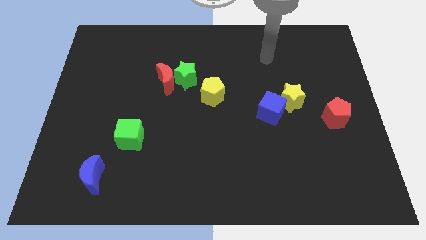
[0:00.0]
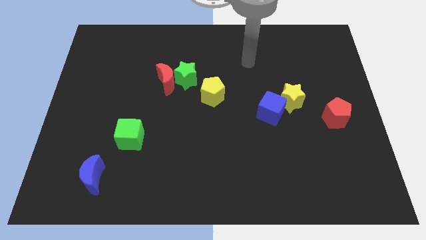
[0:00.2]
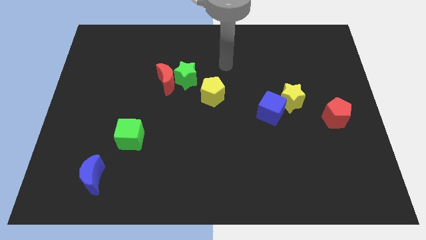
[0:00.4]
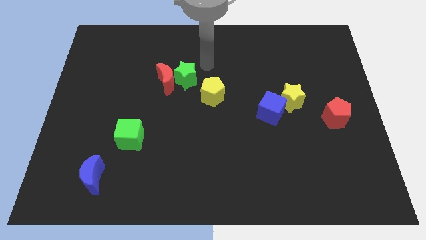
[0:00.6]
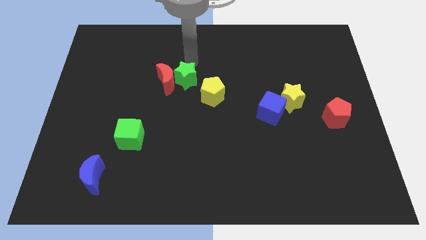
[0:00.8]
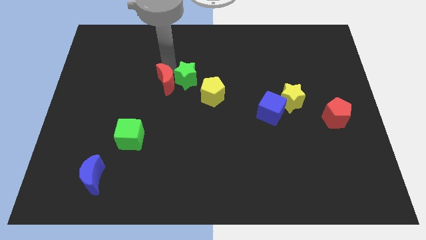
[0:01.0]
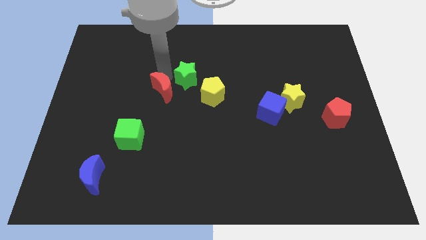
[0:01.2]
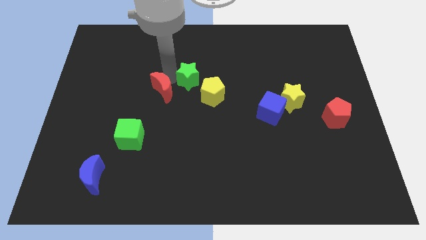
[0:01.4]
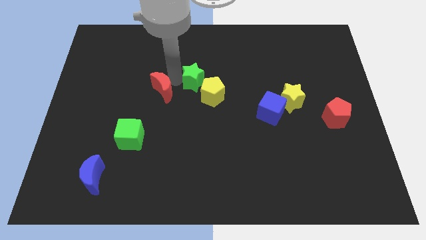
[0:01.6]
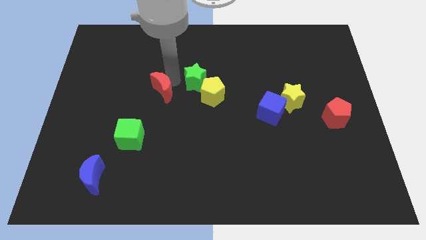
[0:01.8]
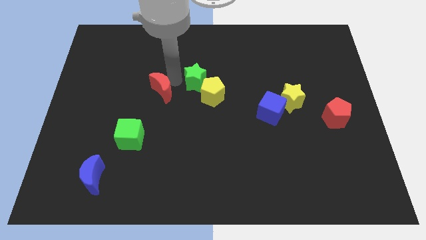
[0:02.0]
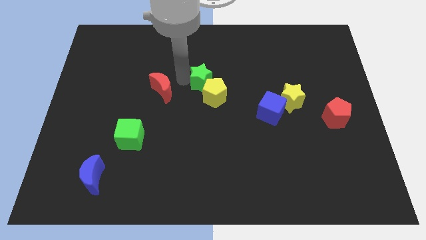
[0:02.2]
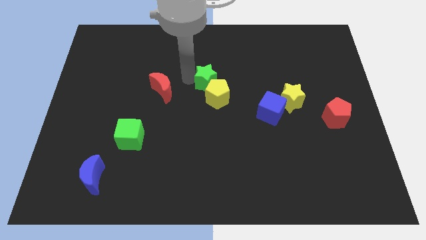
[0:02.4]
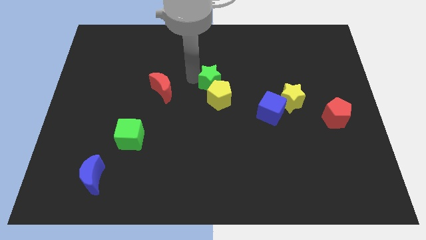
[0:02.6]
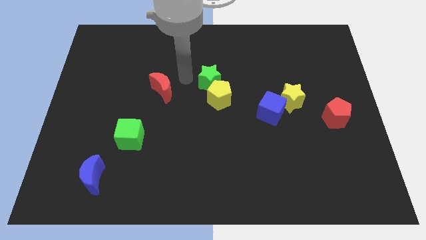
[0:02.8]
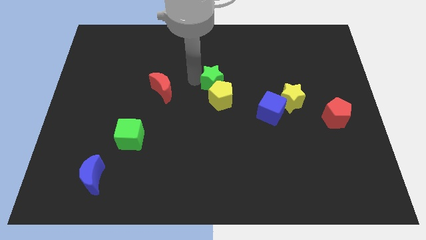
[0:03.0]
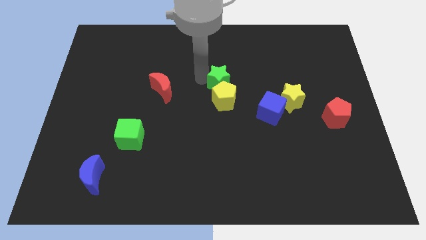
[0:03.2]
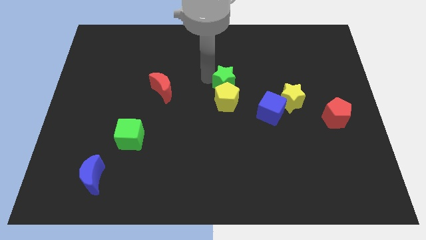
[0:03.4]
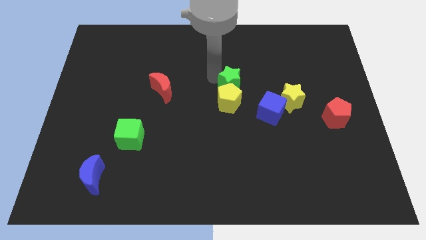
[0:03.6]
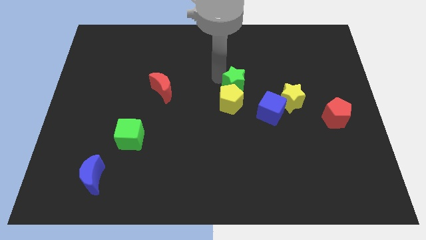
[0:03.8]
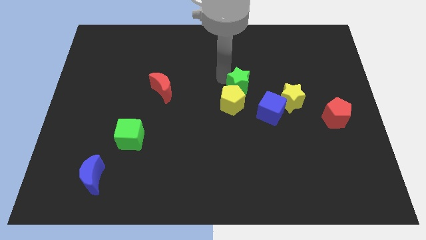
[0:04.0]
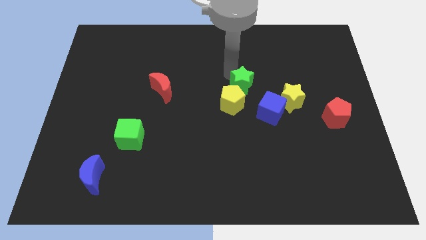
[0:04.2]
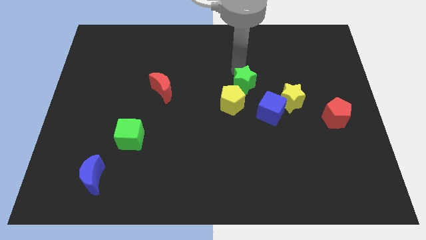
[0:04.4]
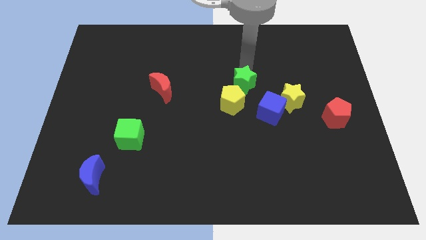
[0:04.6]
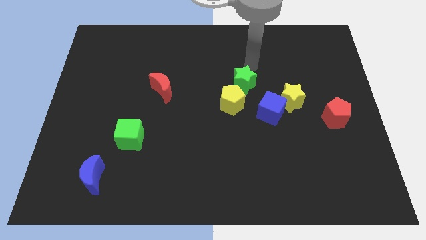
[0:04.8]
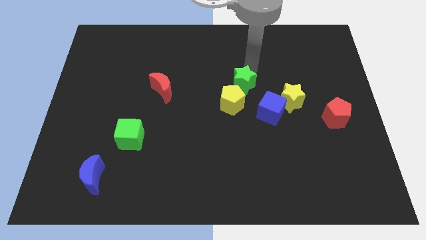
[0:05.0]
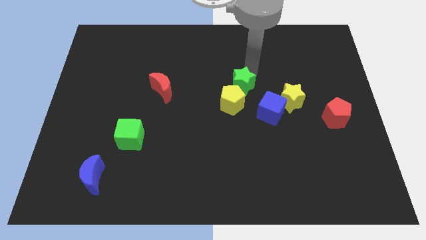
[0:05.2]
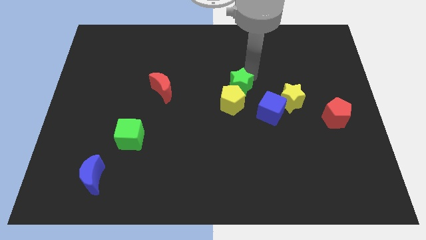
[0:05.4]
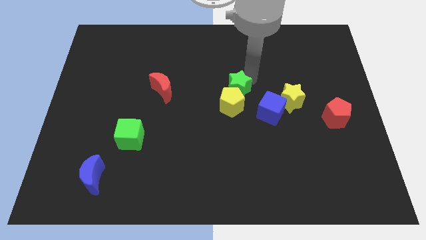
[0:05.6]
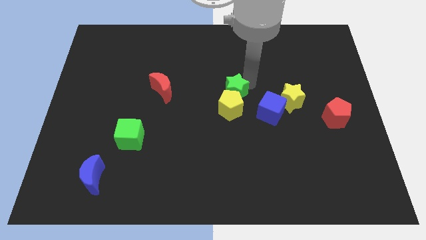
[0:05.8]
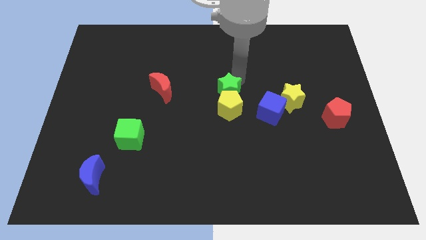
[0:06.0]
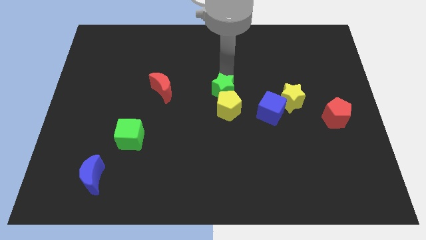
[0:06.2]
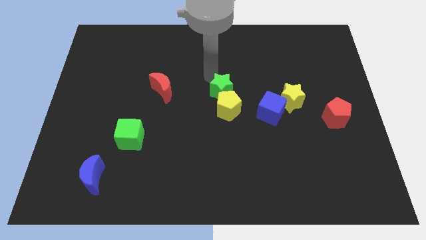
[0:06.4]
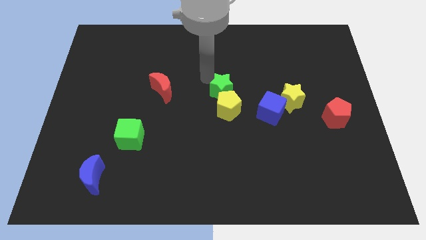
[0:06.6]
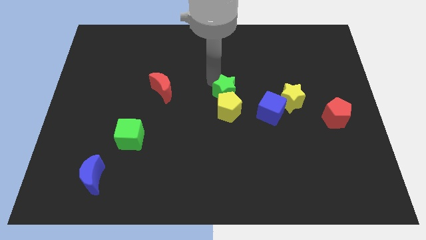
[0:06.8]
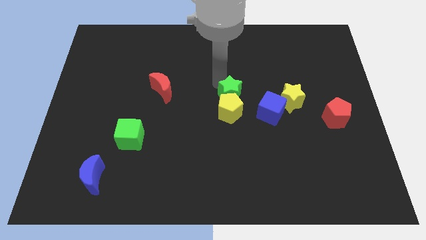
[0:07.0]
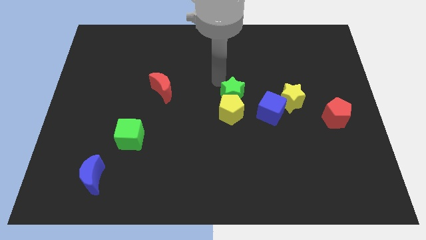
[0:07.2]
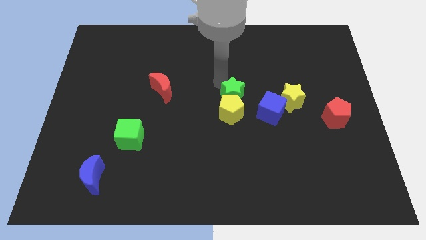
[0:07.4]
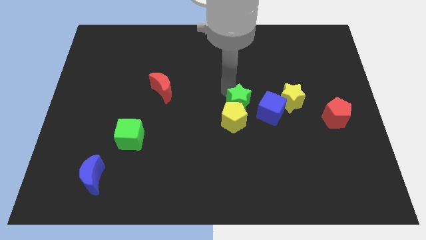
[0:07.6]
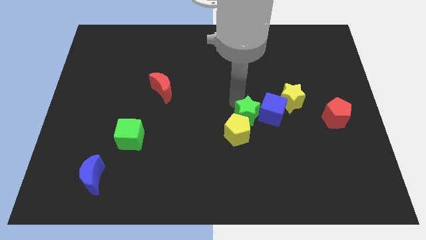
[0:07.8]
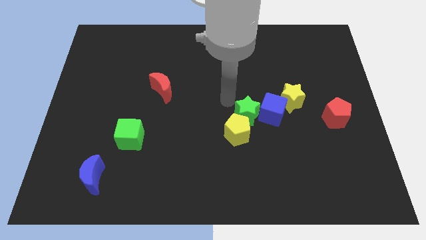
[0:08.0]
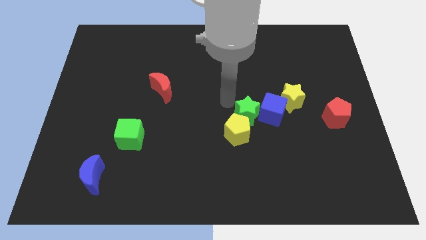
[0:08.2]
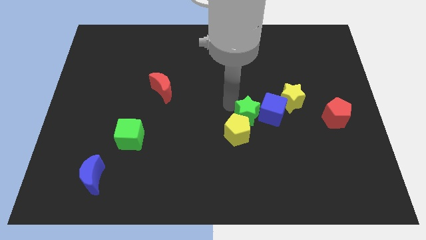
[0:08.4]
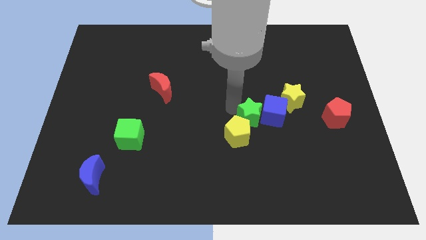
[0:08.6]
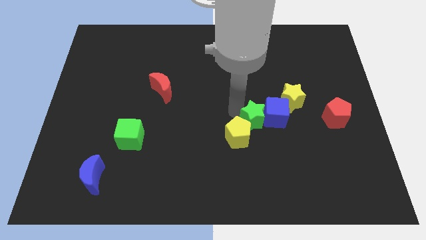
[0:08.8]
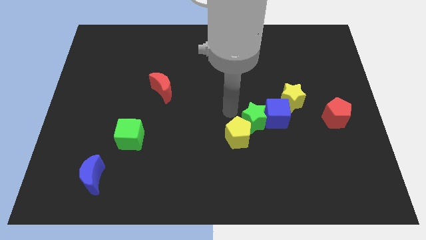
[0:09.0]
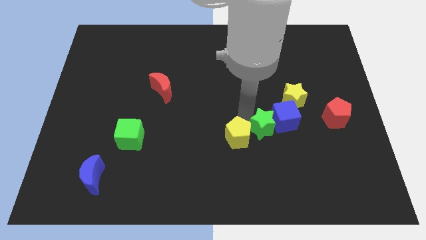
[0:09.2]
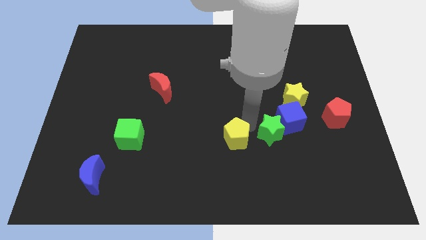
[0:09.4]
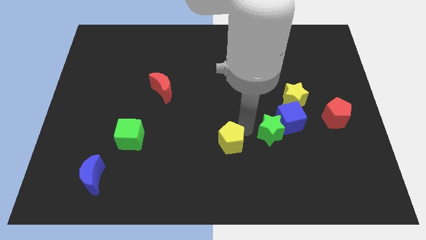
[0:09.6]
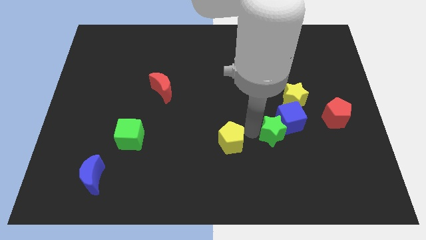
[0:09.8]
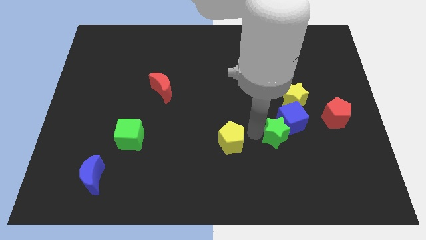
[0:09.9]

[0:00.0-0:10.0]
put the green star below the yellow star

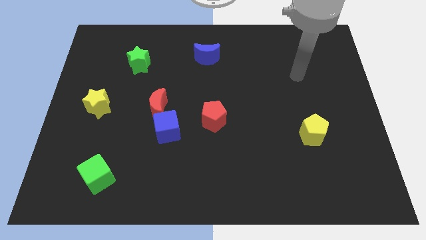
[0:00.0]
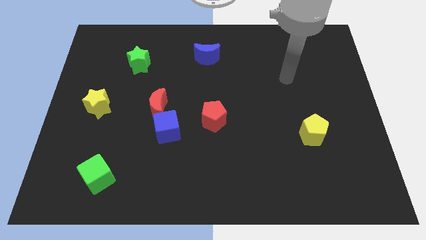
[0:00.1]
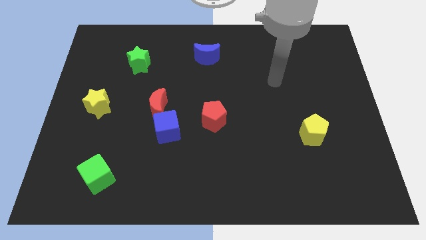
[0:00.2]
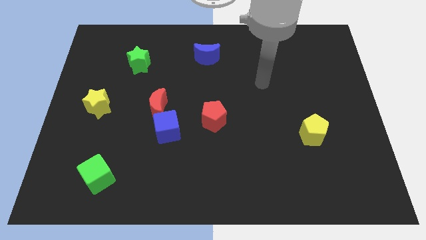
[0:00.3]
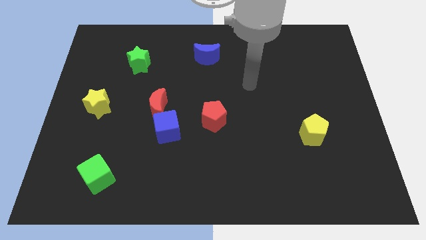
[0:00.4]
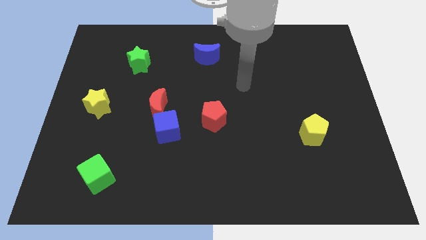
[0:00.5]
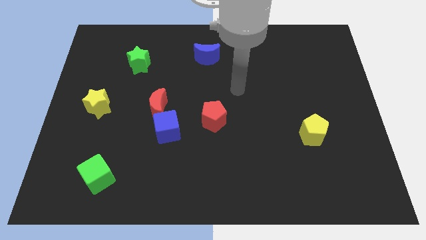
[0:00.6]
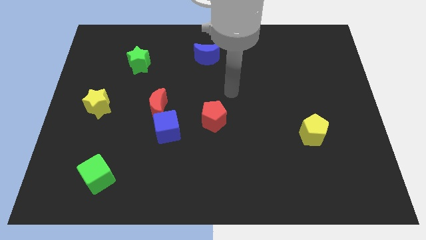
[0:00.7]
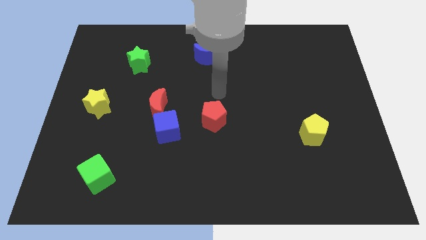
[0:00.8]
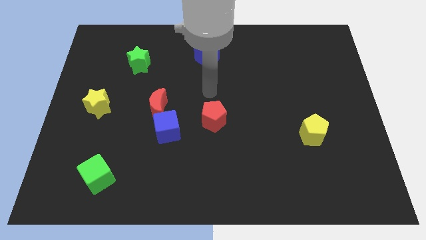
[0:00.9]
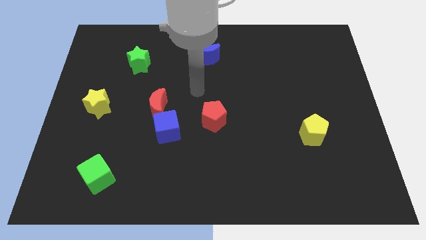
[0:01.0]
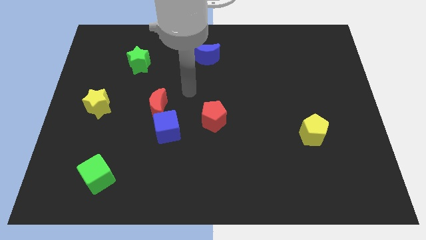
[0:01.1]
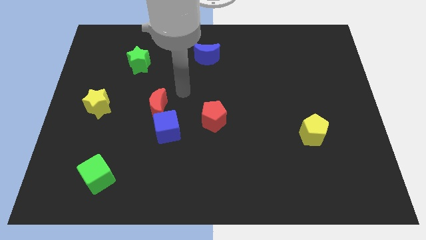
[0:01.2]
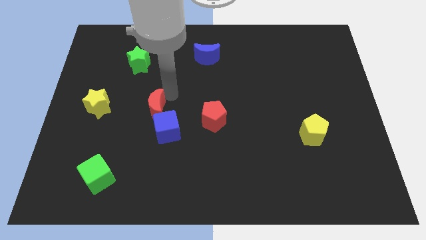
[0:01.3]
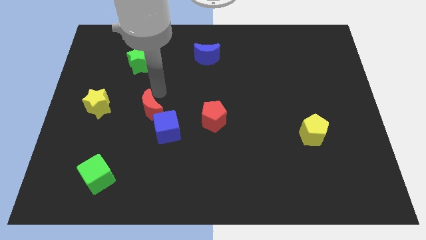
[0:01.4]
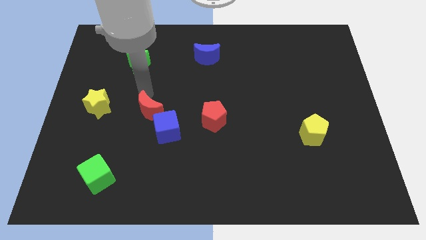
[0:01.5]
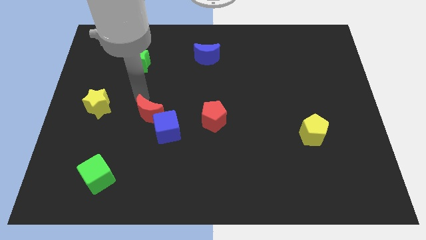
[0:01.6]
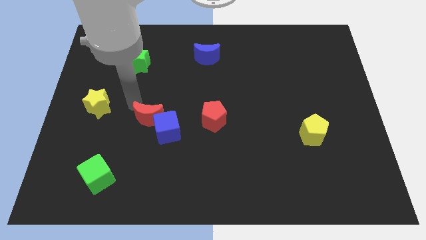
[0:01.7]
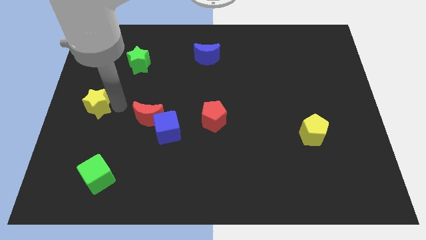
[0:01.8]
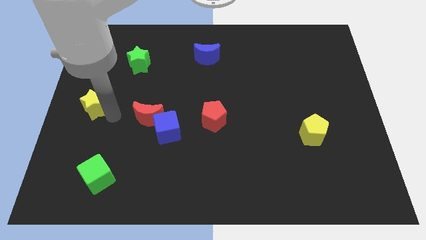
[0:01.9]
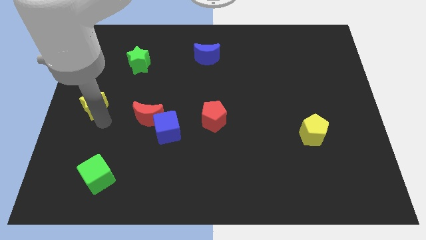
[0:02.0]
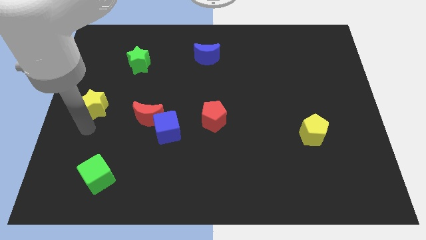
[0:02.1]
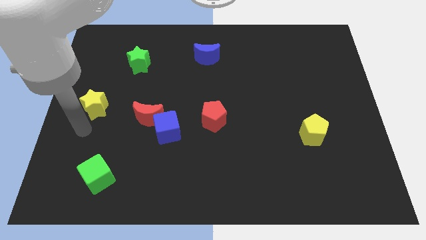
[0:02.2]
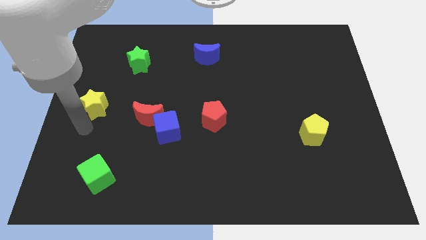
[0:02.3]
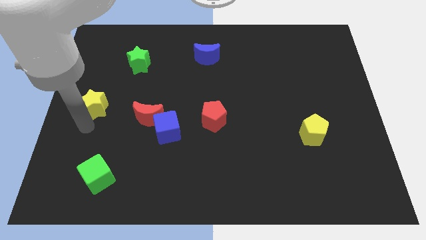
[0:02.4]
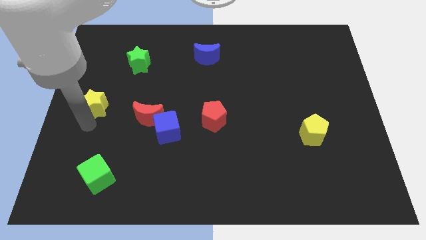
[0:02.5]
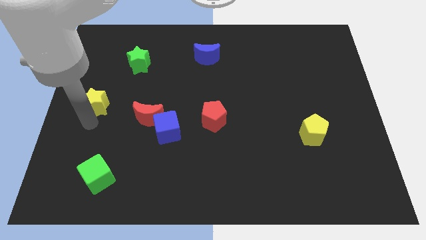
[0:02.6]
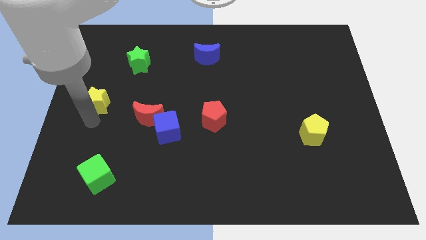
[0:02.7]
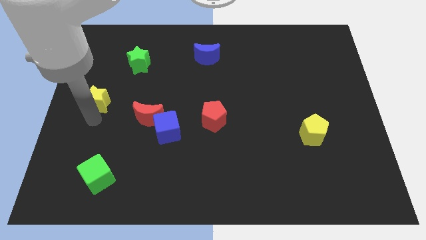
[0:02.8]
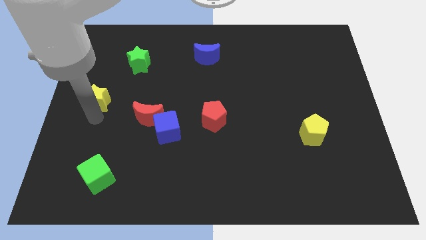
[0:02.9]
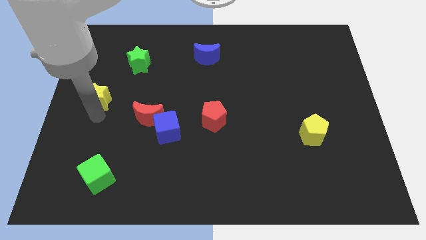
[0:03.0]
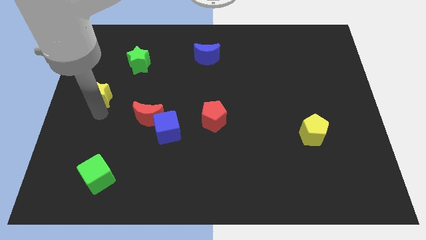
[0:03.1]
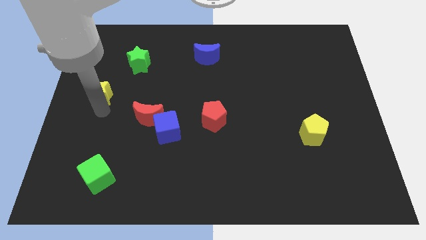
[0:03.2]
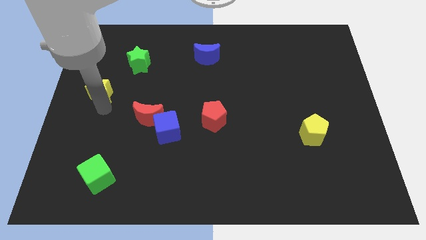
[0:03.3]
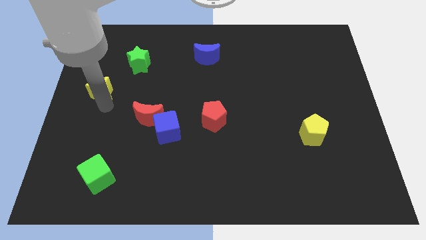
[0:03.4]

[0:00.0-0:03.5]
slide the yellow star to the bottom left side of the green star
